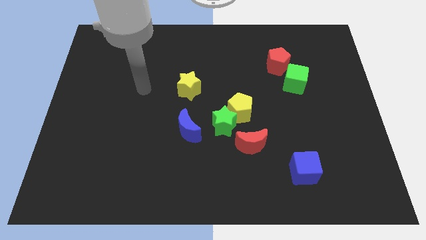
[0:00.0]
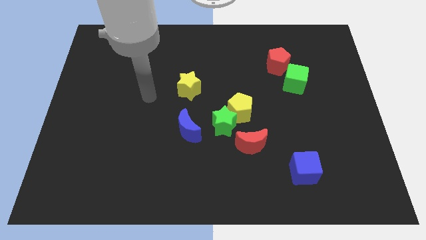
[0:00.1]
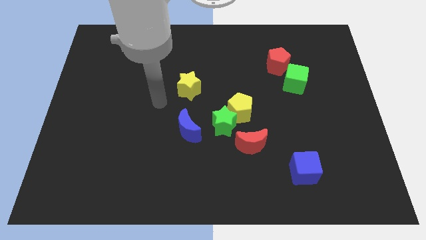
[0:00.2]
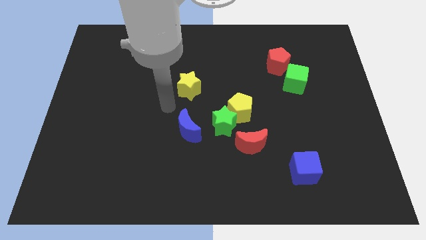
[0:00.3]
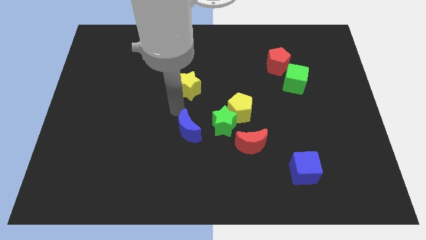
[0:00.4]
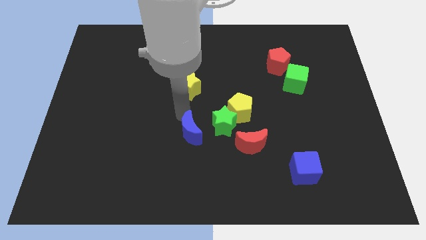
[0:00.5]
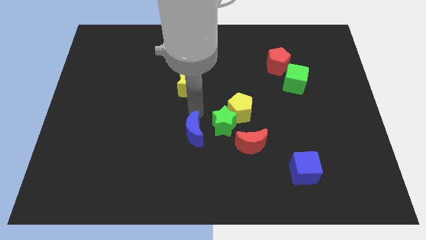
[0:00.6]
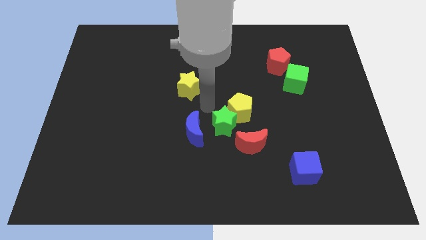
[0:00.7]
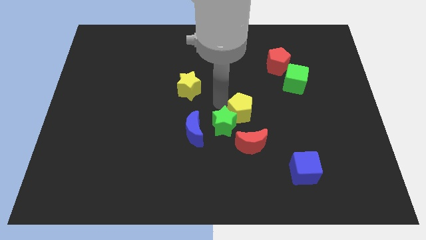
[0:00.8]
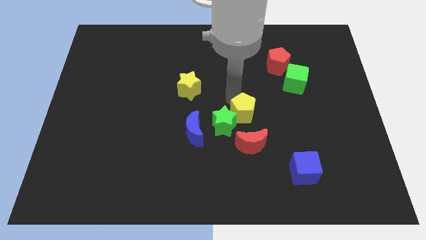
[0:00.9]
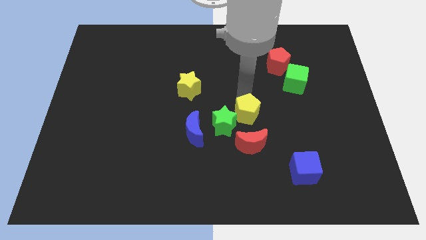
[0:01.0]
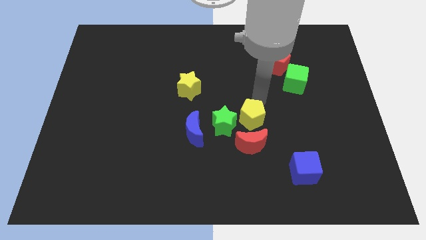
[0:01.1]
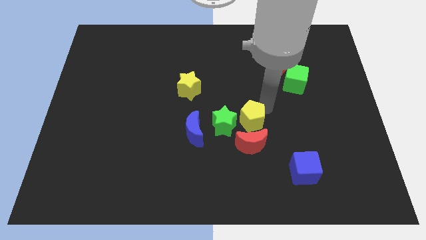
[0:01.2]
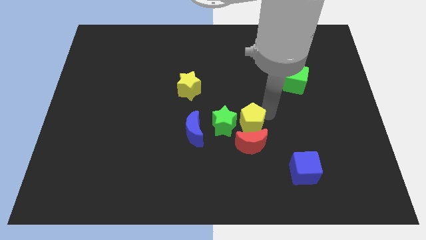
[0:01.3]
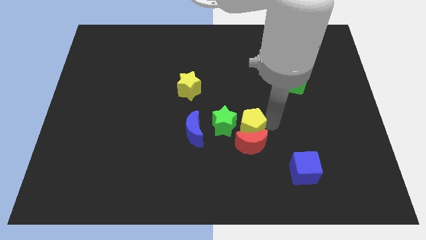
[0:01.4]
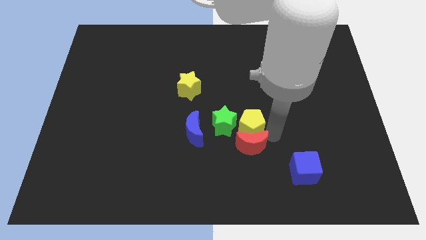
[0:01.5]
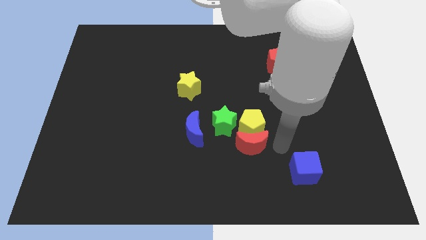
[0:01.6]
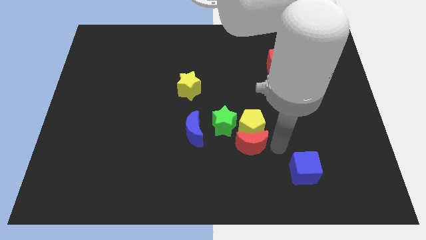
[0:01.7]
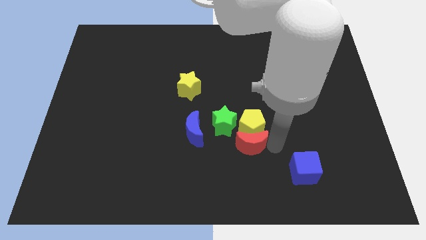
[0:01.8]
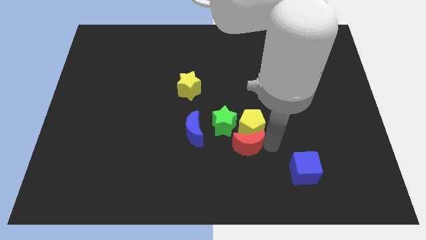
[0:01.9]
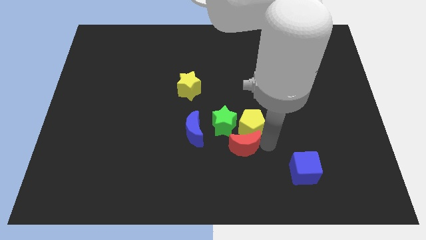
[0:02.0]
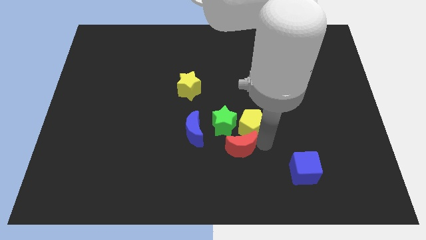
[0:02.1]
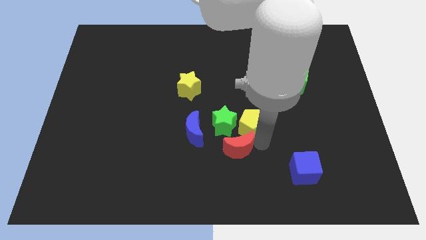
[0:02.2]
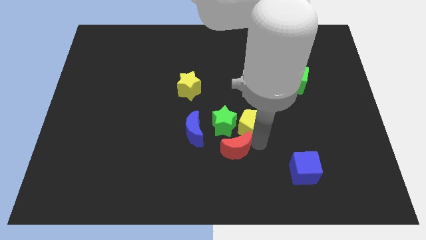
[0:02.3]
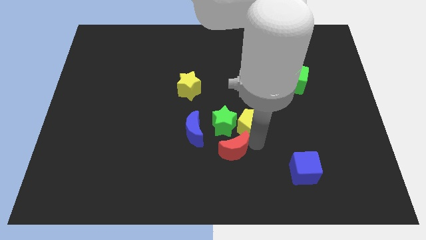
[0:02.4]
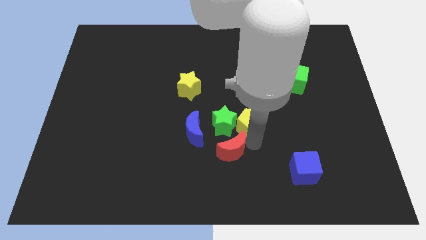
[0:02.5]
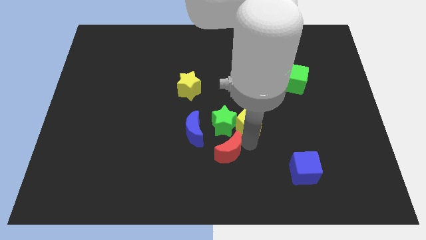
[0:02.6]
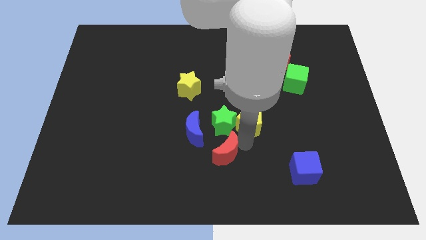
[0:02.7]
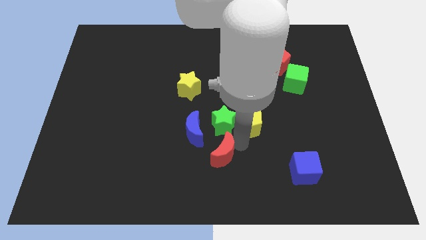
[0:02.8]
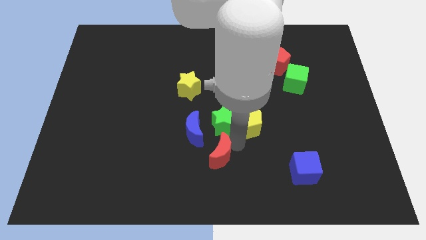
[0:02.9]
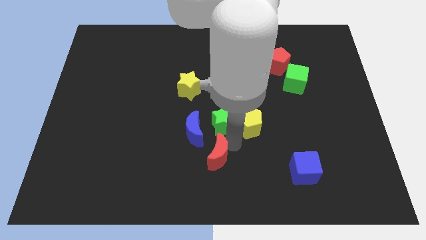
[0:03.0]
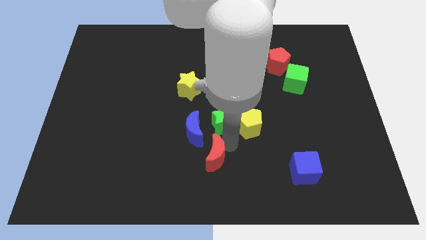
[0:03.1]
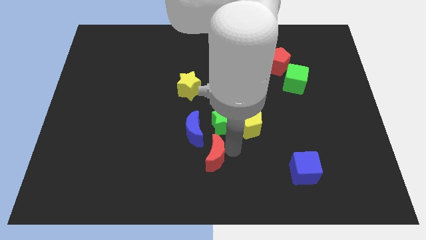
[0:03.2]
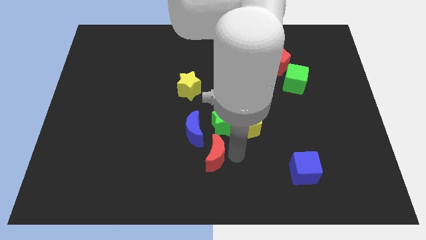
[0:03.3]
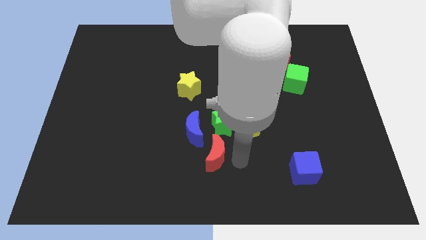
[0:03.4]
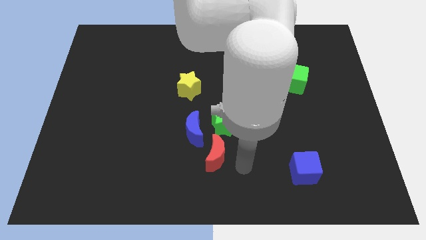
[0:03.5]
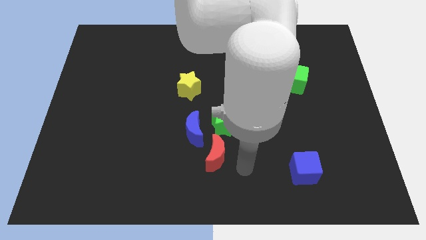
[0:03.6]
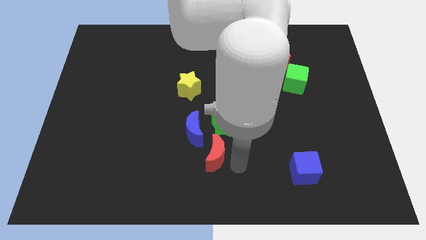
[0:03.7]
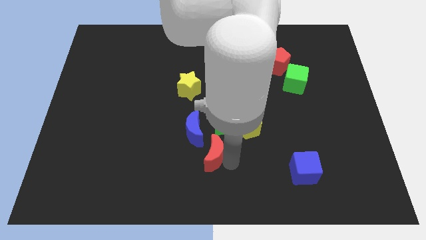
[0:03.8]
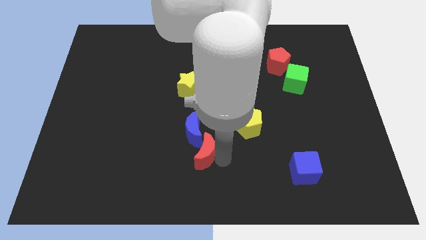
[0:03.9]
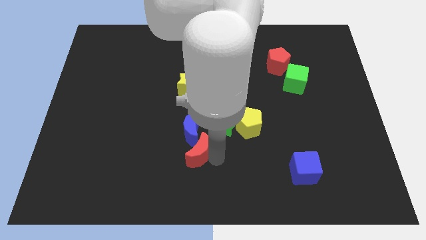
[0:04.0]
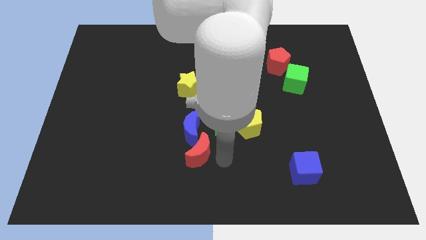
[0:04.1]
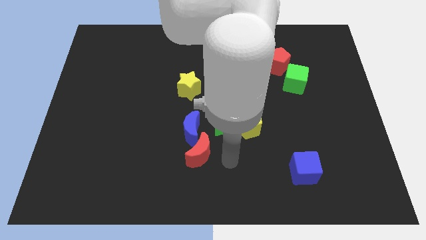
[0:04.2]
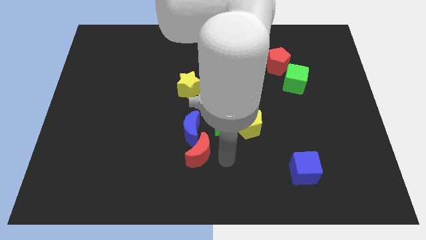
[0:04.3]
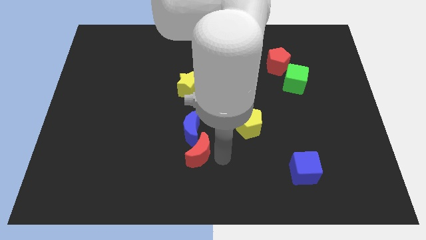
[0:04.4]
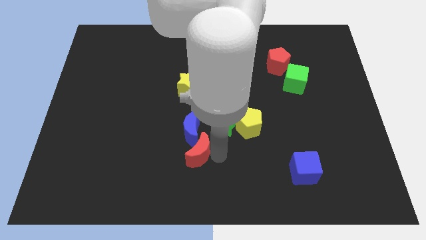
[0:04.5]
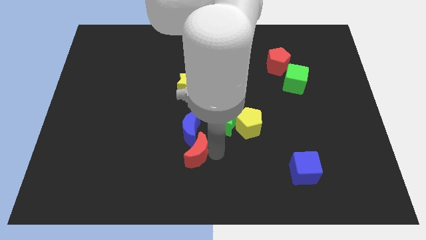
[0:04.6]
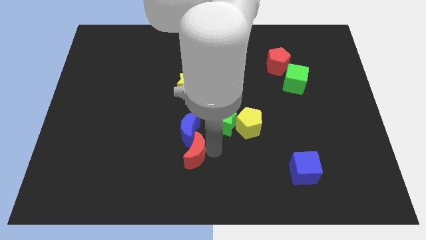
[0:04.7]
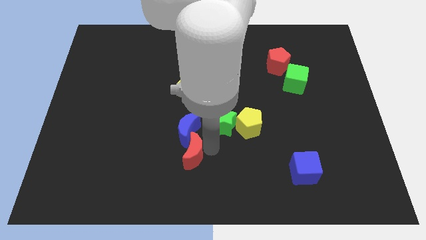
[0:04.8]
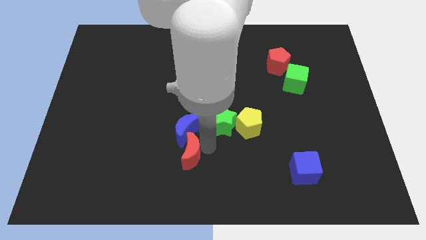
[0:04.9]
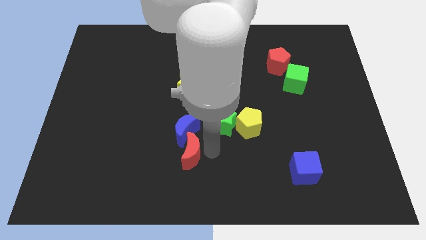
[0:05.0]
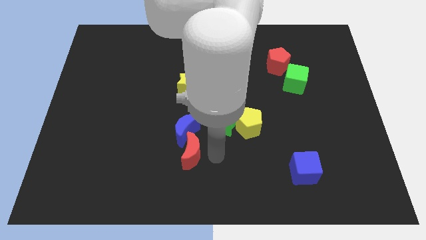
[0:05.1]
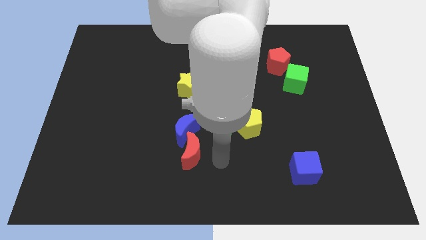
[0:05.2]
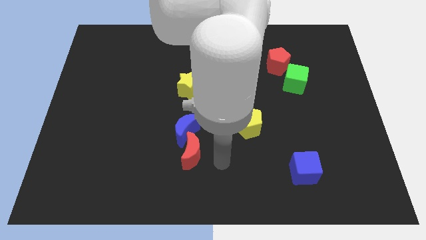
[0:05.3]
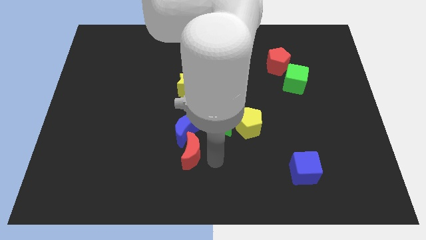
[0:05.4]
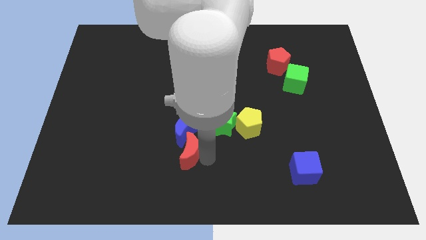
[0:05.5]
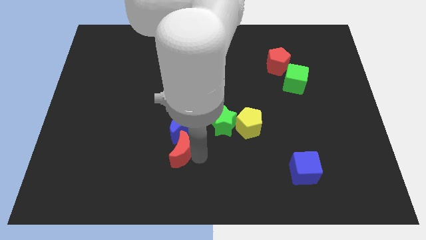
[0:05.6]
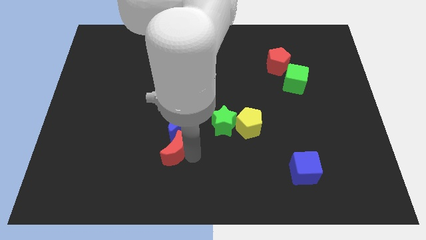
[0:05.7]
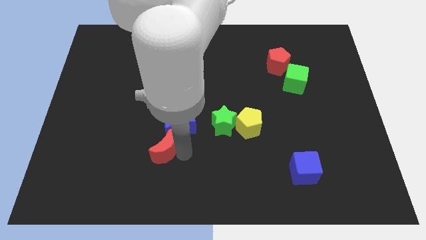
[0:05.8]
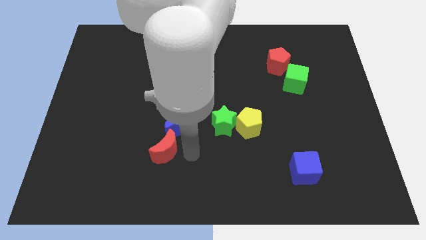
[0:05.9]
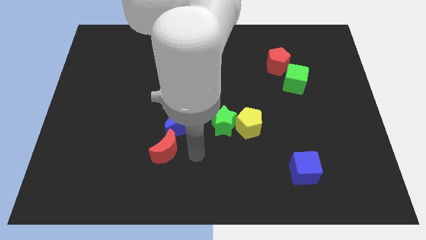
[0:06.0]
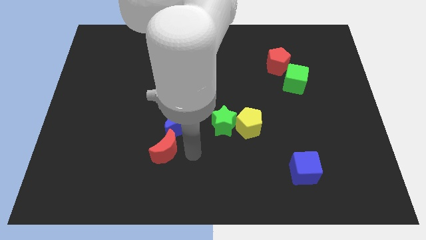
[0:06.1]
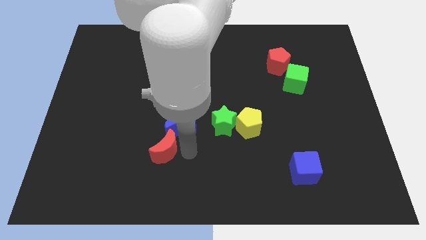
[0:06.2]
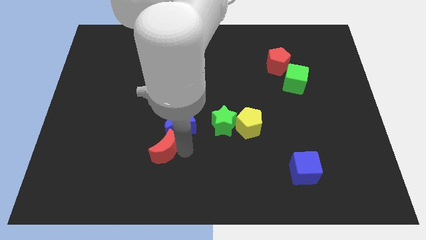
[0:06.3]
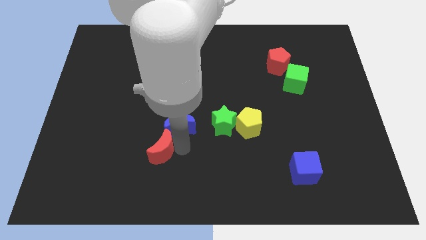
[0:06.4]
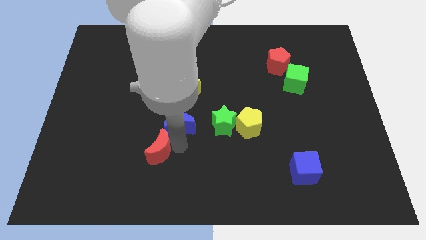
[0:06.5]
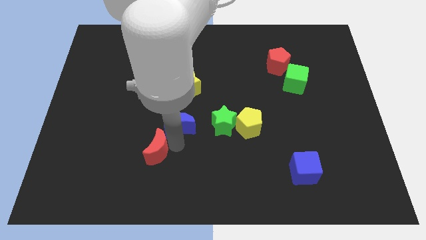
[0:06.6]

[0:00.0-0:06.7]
move the red moon to the left

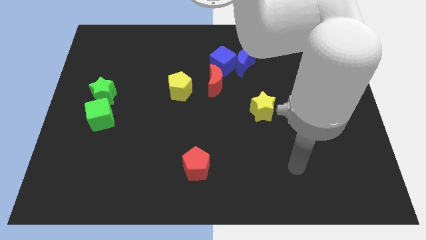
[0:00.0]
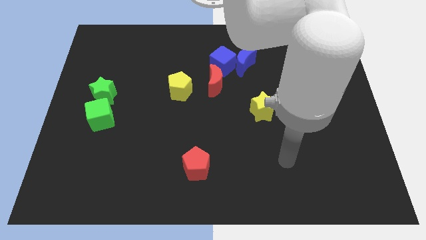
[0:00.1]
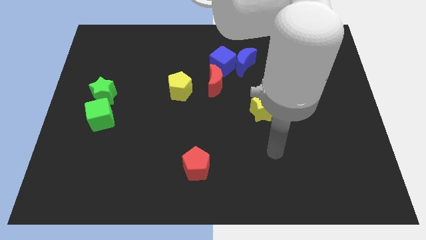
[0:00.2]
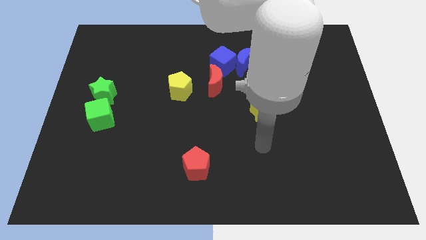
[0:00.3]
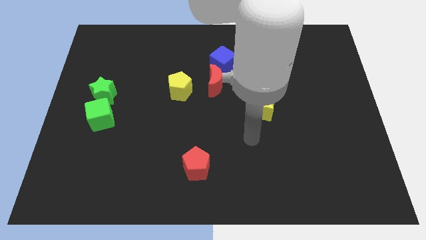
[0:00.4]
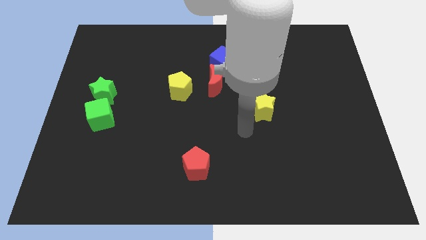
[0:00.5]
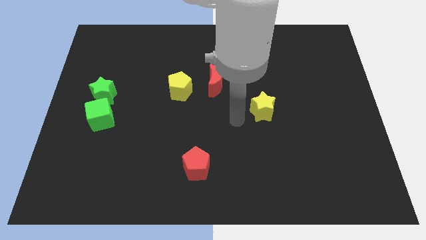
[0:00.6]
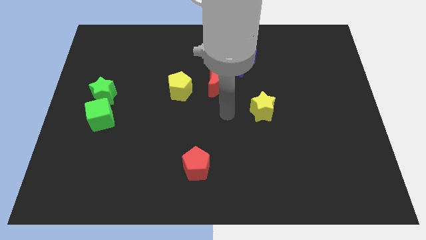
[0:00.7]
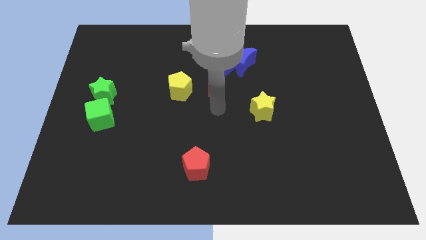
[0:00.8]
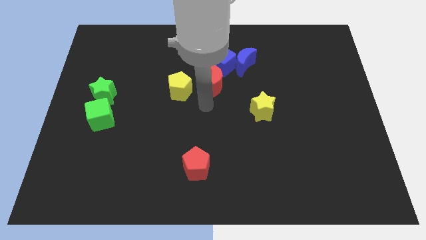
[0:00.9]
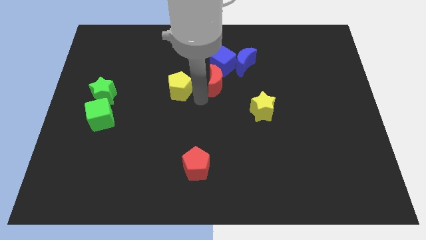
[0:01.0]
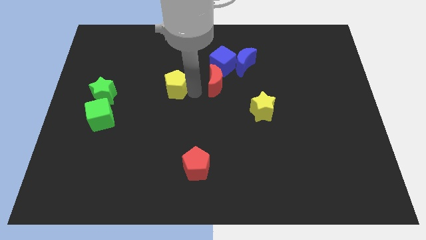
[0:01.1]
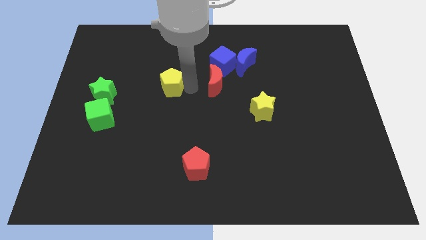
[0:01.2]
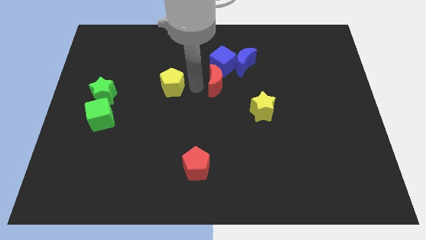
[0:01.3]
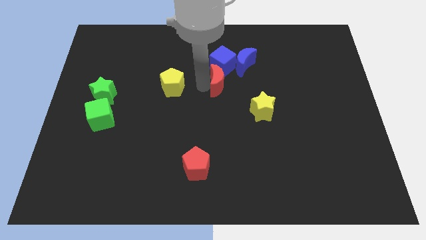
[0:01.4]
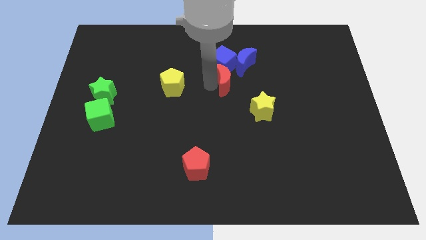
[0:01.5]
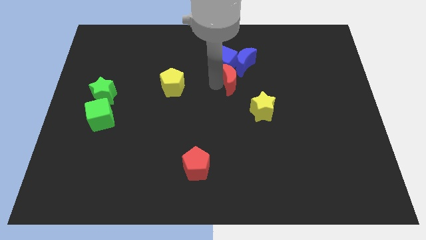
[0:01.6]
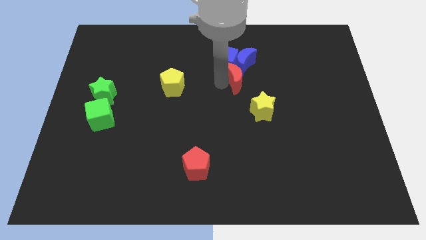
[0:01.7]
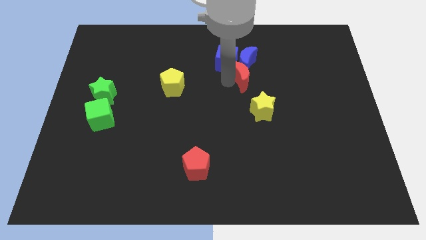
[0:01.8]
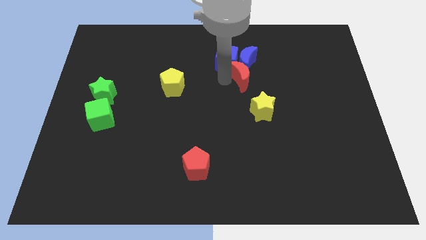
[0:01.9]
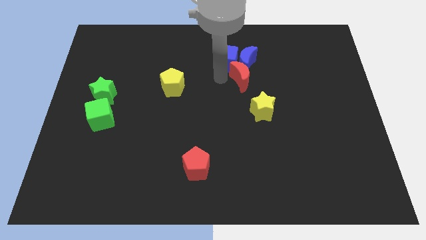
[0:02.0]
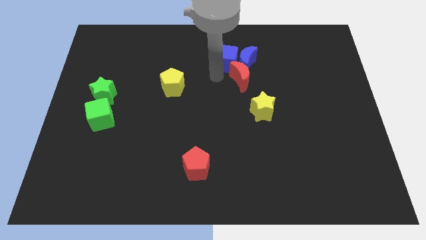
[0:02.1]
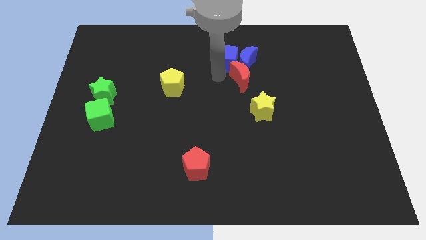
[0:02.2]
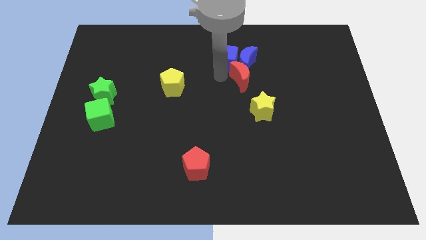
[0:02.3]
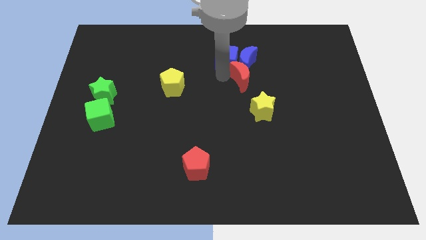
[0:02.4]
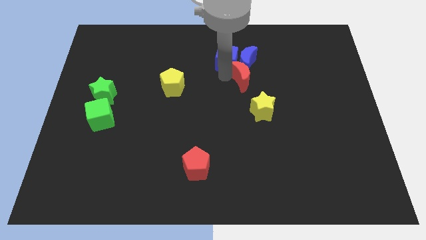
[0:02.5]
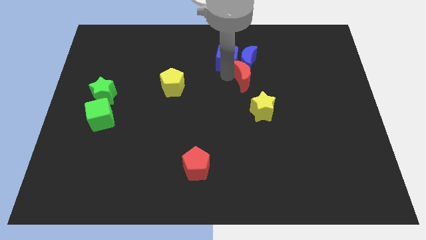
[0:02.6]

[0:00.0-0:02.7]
move the red moon to the right a little bit
